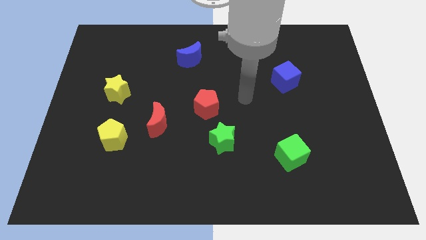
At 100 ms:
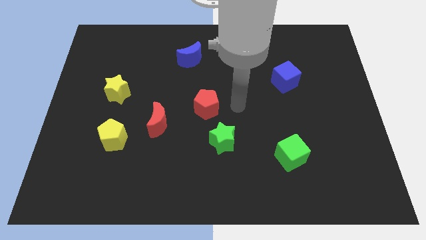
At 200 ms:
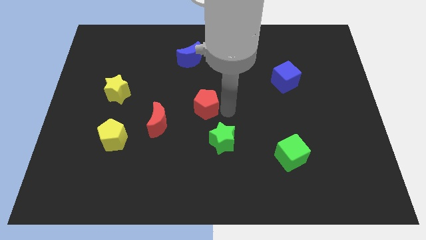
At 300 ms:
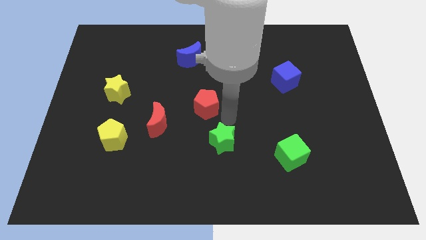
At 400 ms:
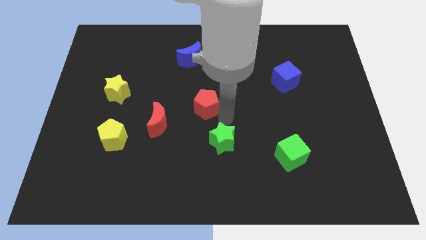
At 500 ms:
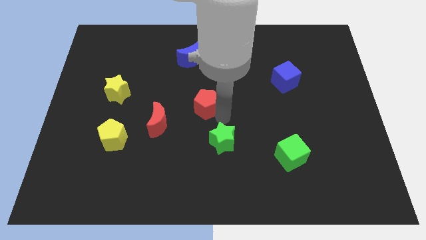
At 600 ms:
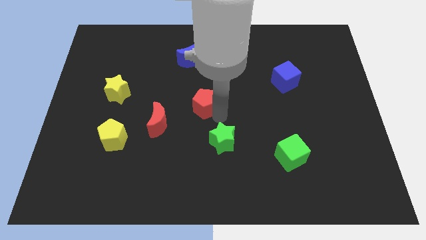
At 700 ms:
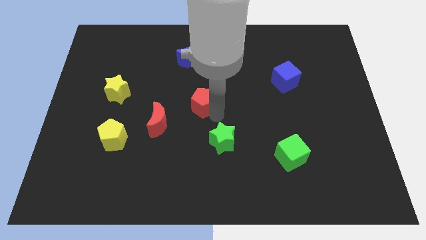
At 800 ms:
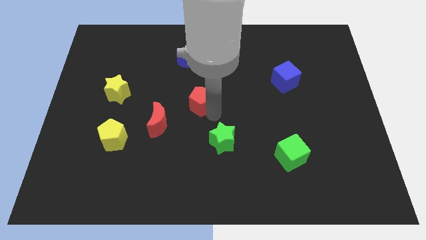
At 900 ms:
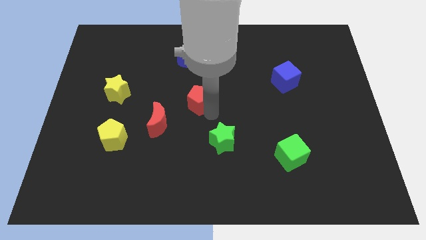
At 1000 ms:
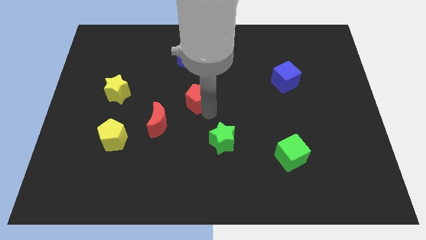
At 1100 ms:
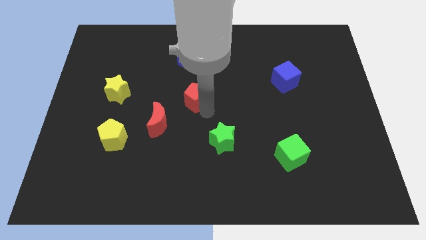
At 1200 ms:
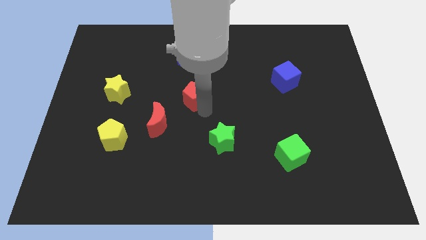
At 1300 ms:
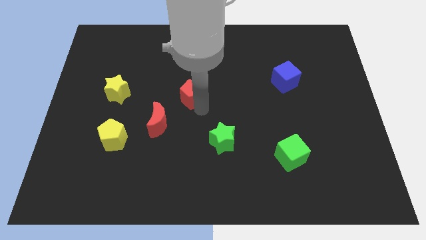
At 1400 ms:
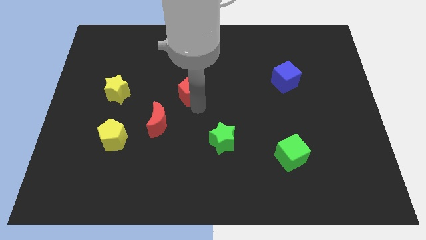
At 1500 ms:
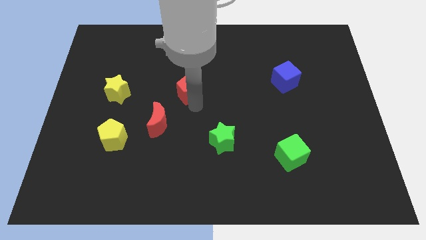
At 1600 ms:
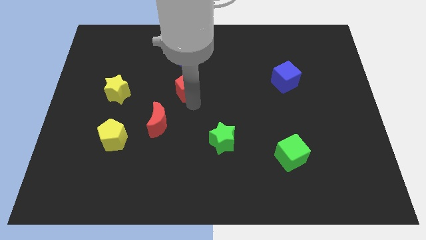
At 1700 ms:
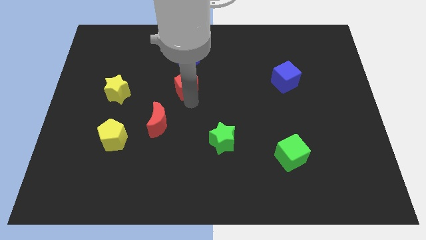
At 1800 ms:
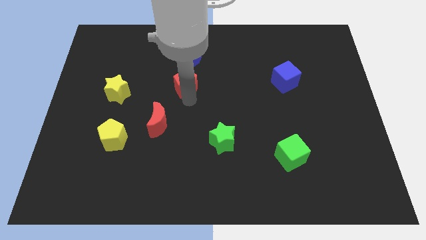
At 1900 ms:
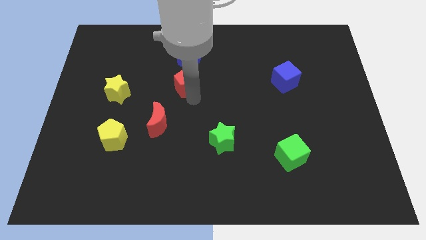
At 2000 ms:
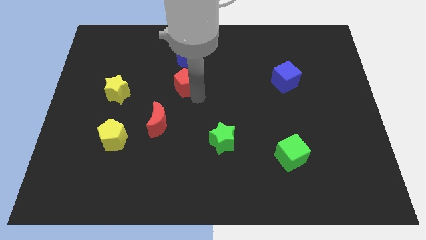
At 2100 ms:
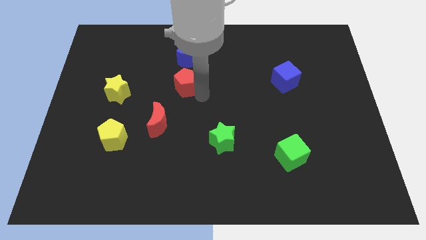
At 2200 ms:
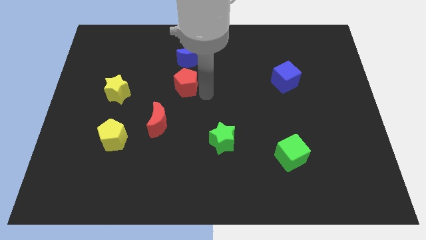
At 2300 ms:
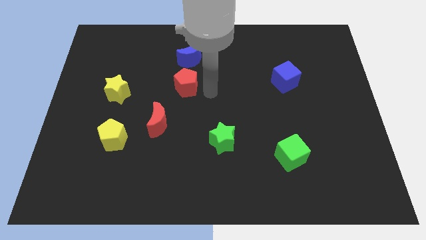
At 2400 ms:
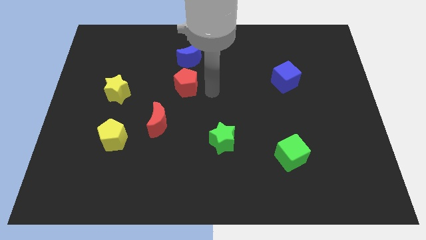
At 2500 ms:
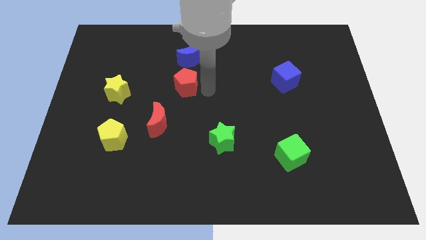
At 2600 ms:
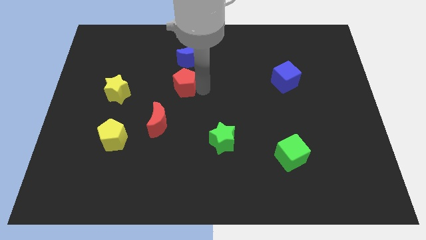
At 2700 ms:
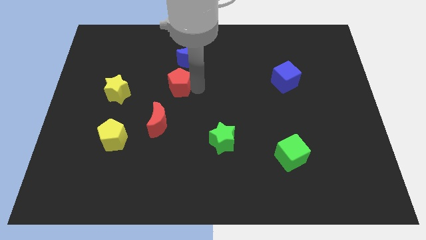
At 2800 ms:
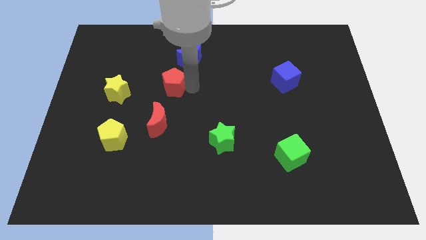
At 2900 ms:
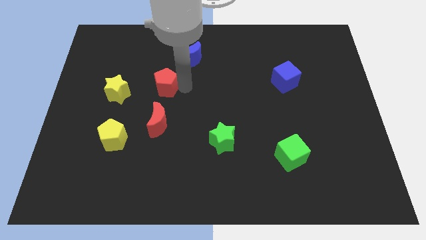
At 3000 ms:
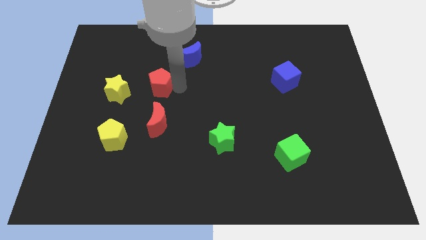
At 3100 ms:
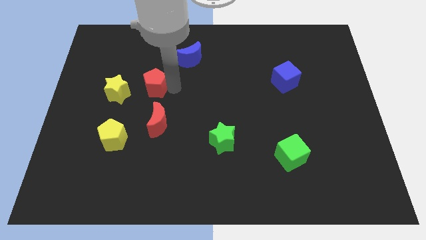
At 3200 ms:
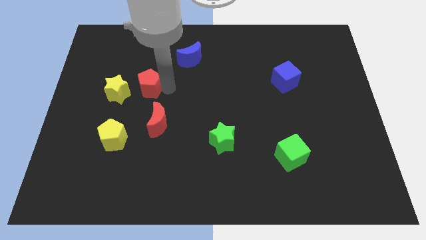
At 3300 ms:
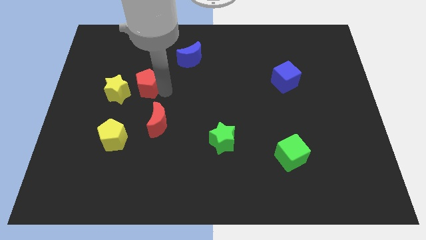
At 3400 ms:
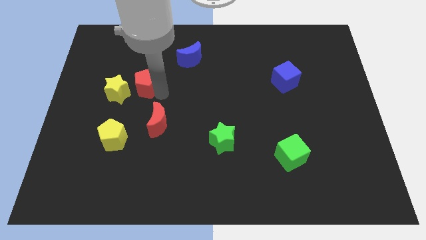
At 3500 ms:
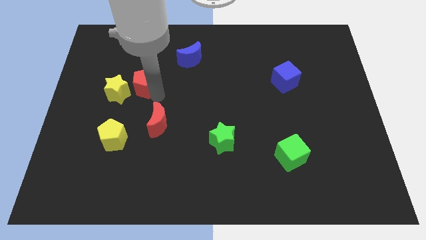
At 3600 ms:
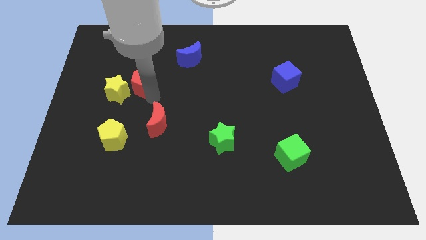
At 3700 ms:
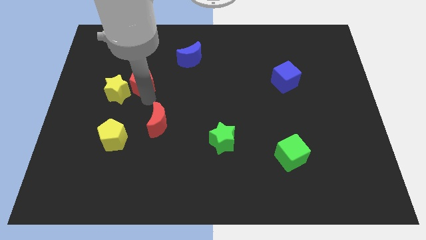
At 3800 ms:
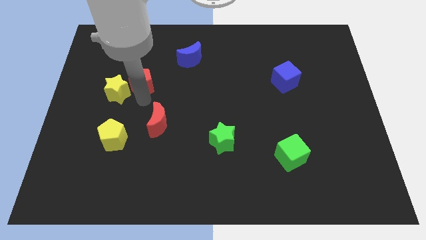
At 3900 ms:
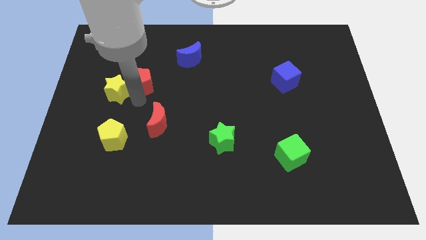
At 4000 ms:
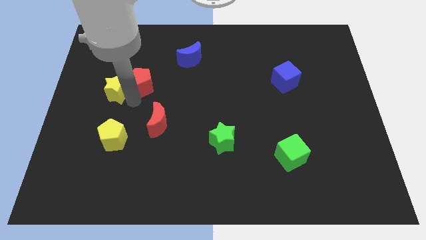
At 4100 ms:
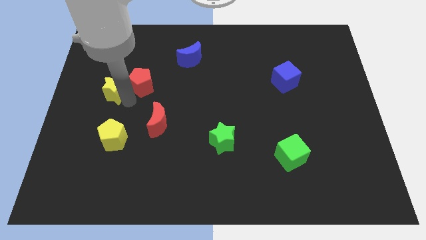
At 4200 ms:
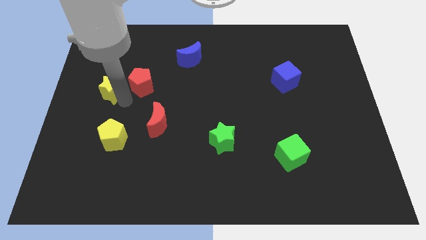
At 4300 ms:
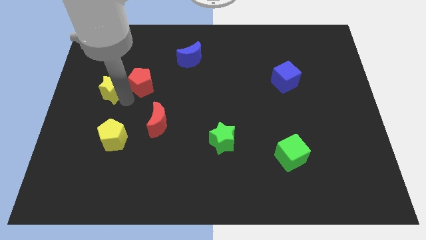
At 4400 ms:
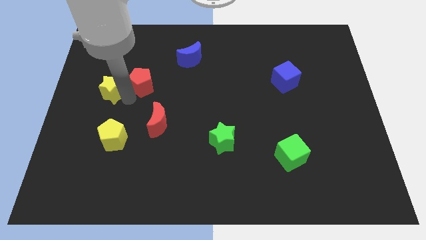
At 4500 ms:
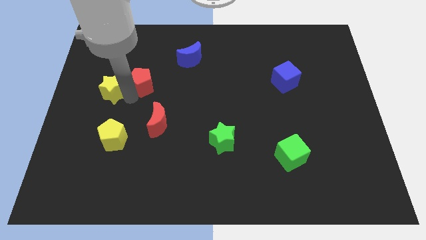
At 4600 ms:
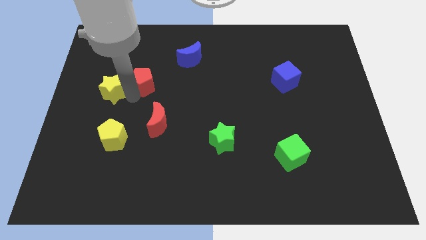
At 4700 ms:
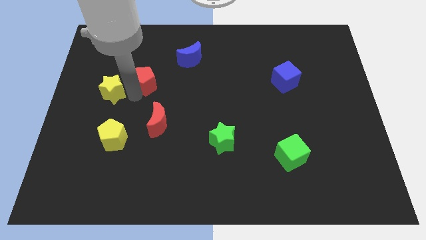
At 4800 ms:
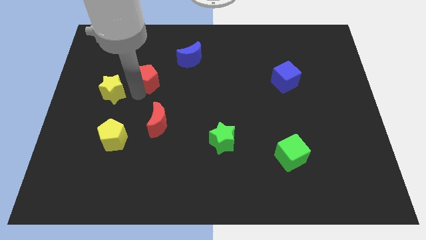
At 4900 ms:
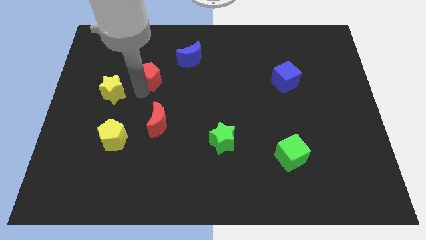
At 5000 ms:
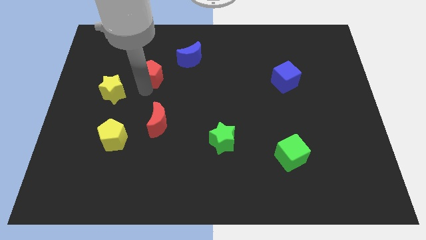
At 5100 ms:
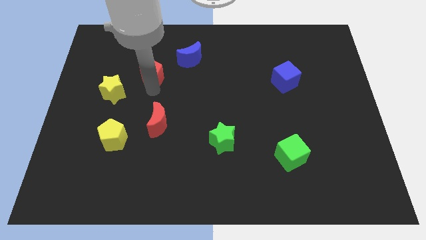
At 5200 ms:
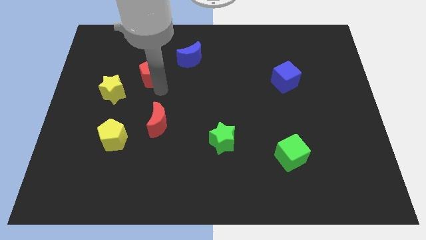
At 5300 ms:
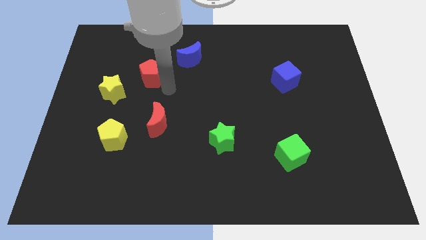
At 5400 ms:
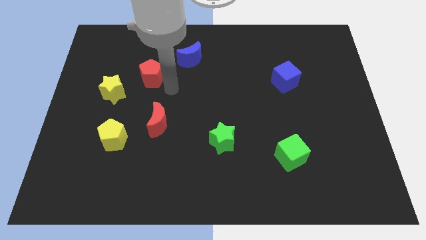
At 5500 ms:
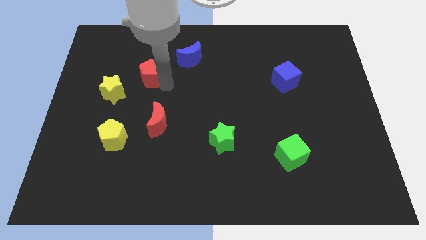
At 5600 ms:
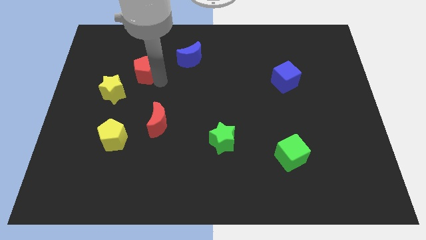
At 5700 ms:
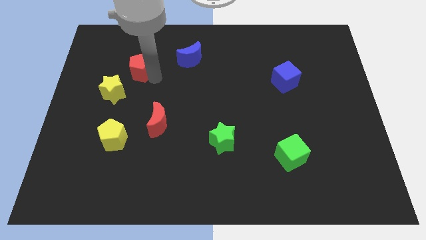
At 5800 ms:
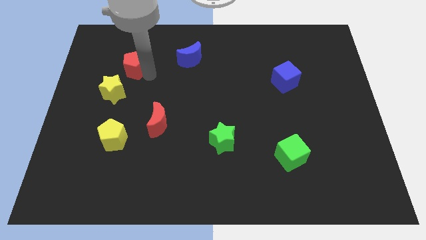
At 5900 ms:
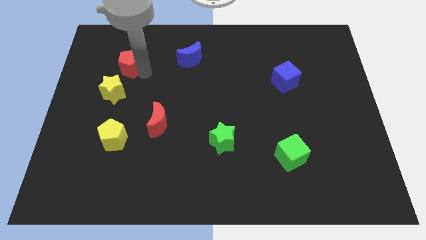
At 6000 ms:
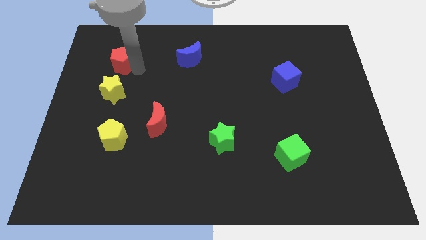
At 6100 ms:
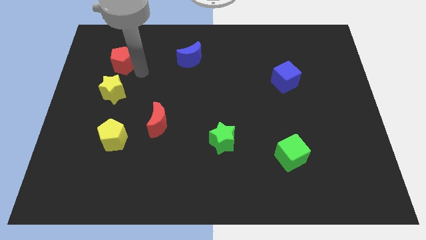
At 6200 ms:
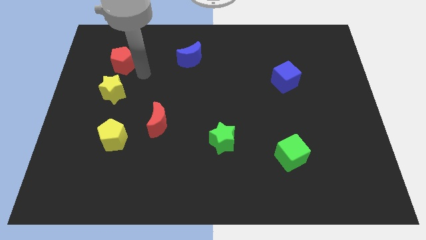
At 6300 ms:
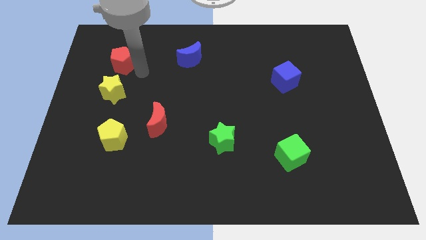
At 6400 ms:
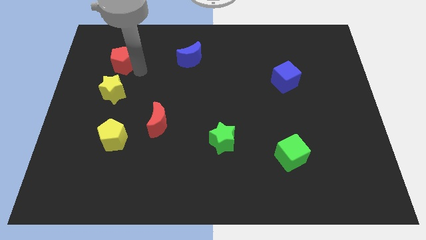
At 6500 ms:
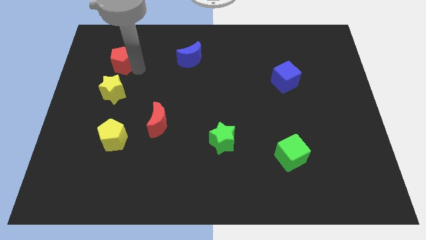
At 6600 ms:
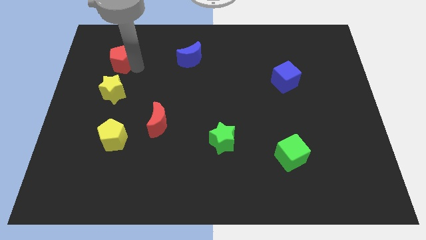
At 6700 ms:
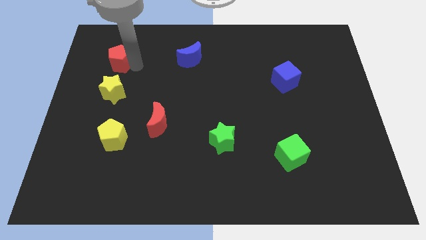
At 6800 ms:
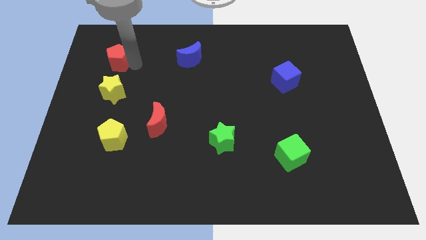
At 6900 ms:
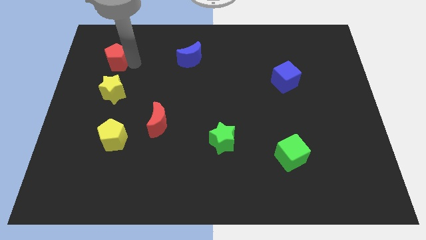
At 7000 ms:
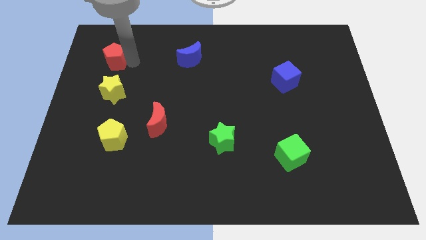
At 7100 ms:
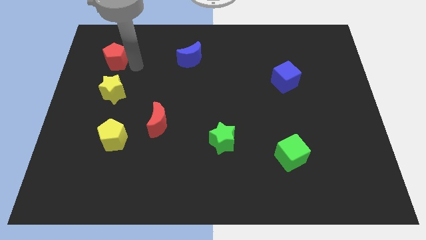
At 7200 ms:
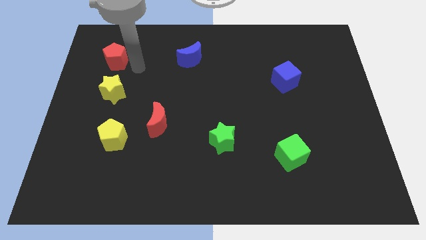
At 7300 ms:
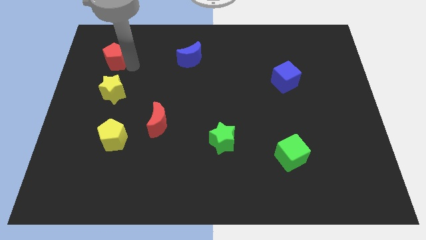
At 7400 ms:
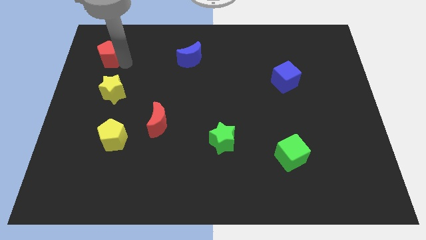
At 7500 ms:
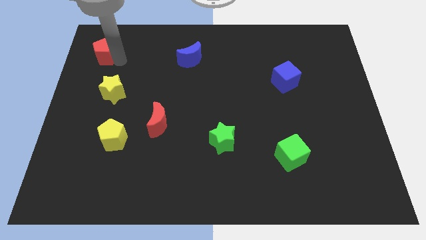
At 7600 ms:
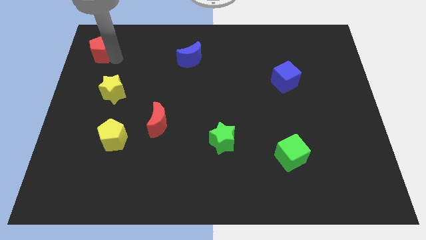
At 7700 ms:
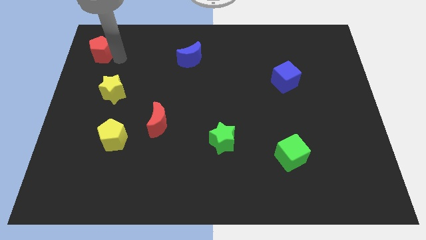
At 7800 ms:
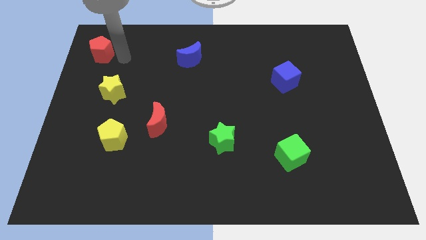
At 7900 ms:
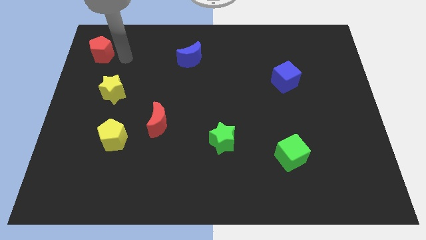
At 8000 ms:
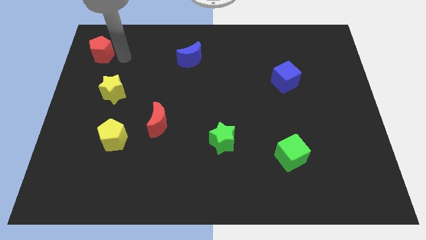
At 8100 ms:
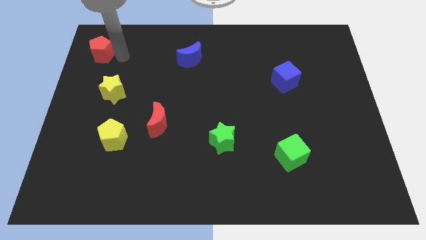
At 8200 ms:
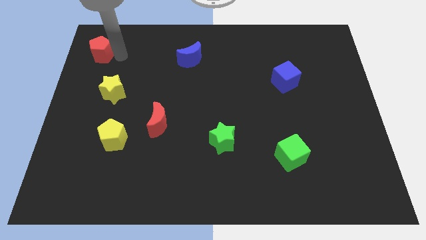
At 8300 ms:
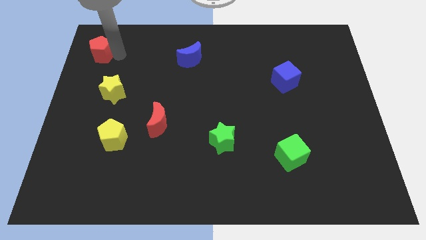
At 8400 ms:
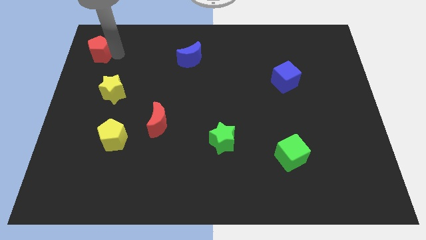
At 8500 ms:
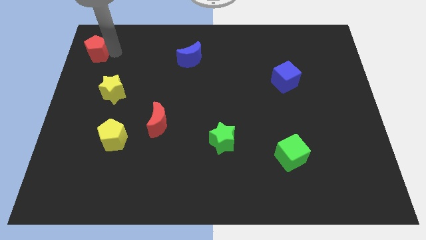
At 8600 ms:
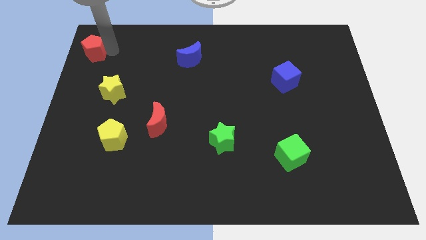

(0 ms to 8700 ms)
move the red pentagon to the top left of the board
